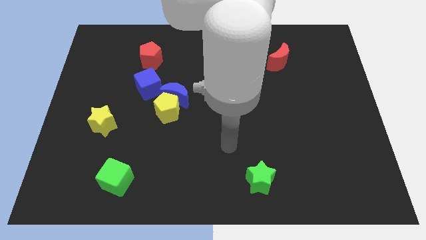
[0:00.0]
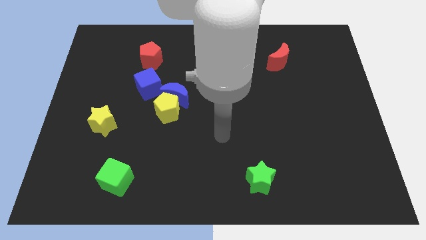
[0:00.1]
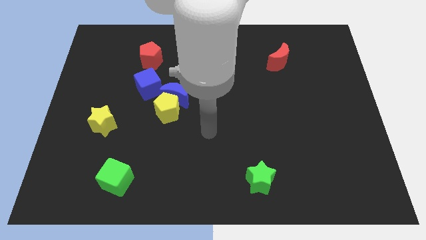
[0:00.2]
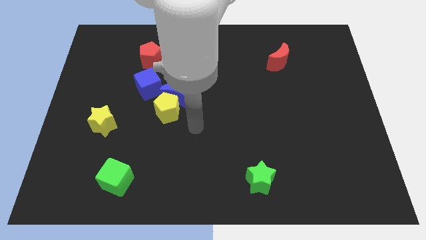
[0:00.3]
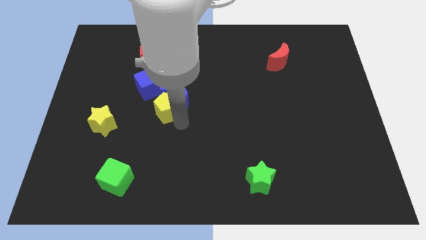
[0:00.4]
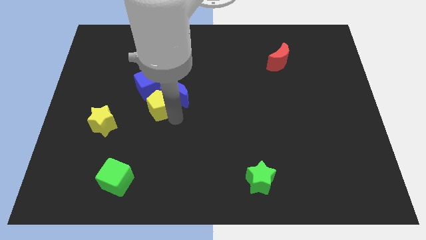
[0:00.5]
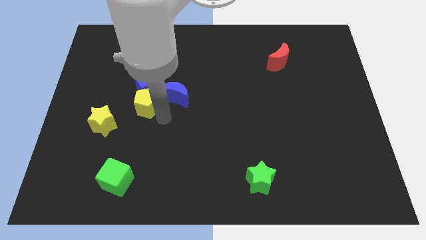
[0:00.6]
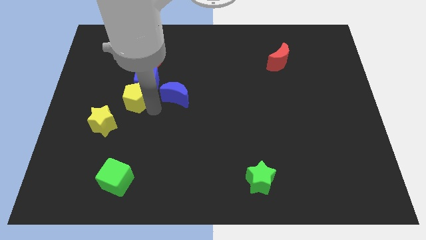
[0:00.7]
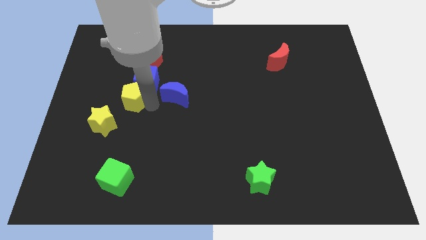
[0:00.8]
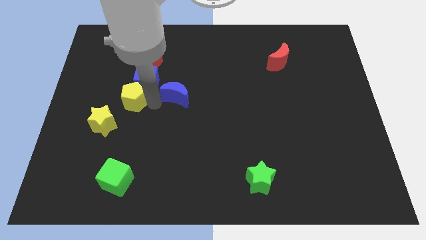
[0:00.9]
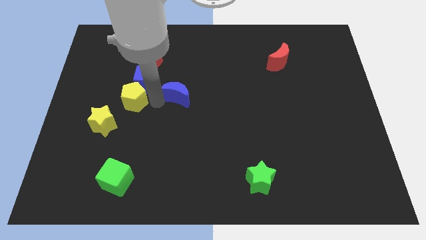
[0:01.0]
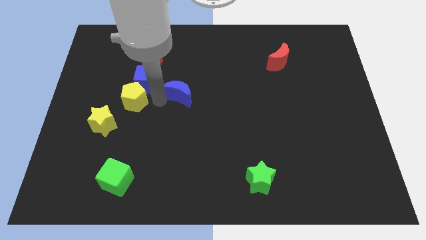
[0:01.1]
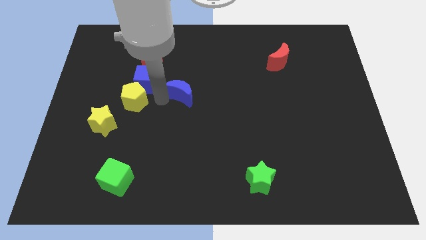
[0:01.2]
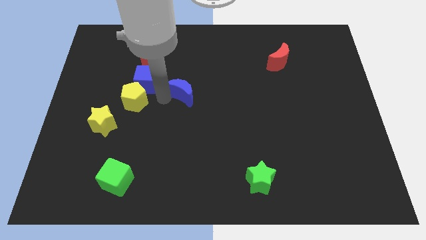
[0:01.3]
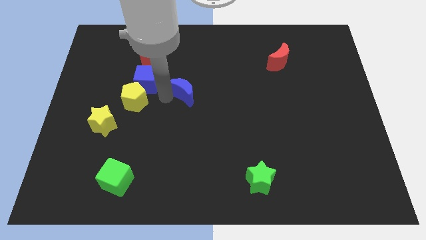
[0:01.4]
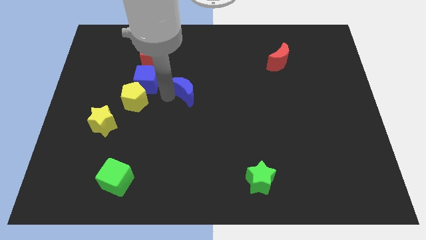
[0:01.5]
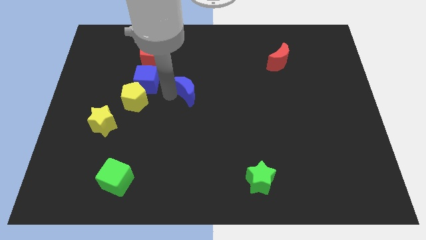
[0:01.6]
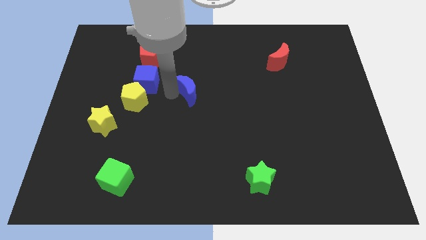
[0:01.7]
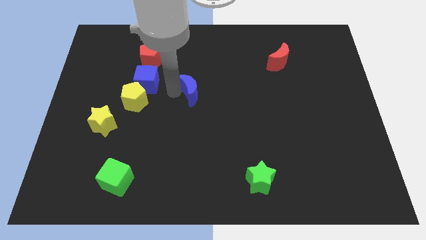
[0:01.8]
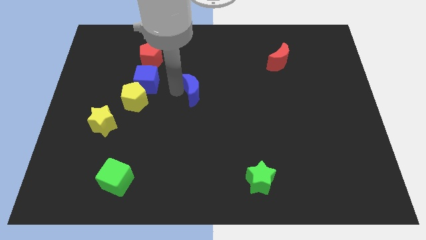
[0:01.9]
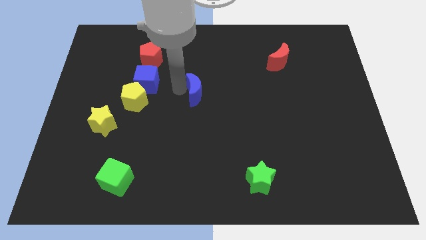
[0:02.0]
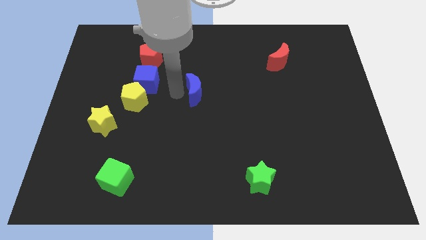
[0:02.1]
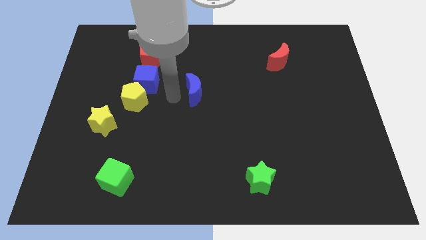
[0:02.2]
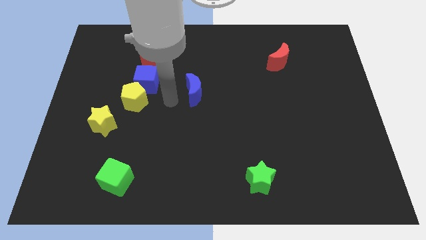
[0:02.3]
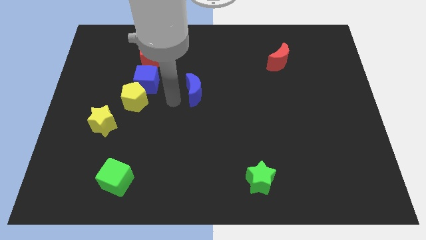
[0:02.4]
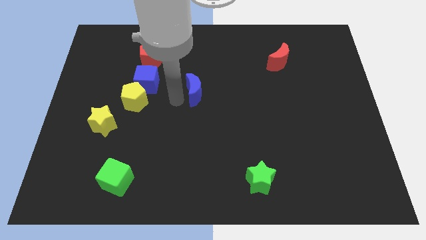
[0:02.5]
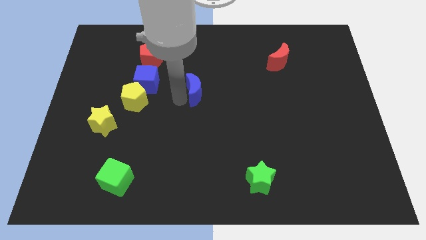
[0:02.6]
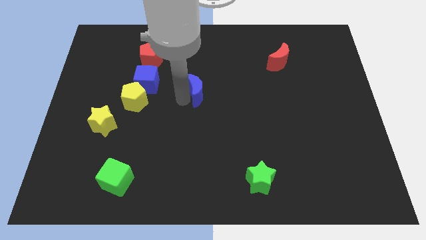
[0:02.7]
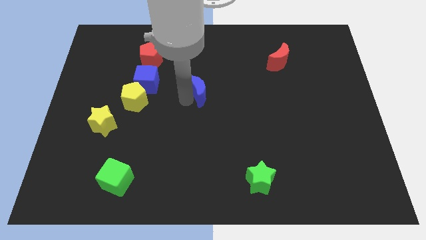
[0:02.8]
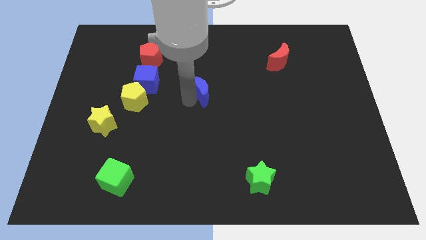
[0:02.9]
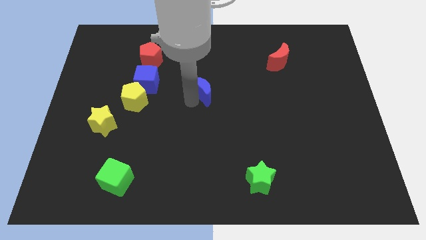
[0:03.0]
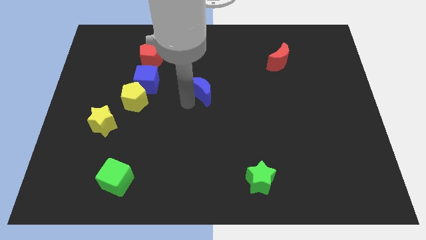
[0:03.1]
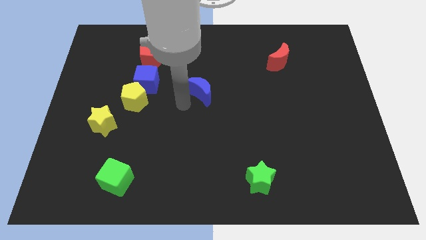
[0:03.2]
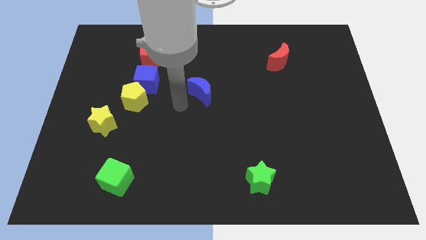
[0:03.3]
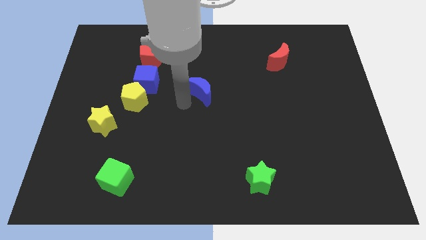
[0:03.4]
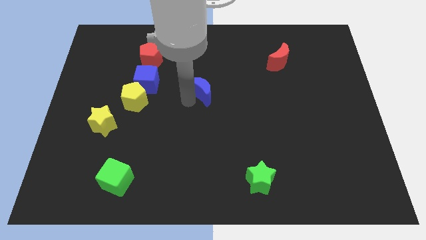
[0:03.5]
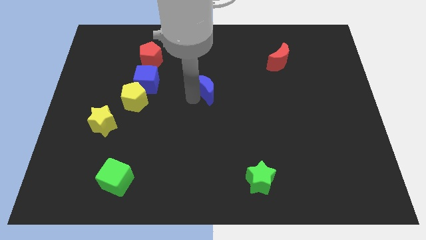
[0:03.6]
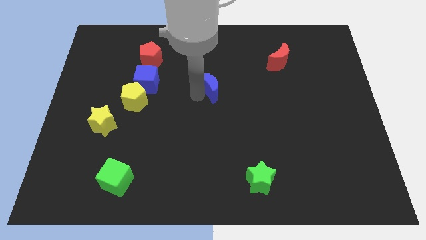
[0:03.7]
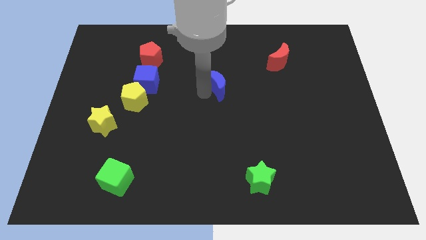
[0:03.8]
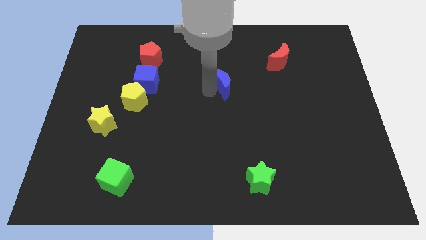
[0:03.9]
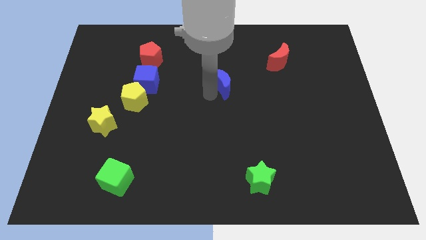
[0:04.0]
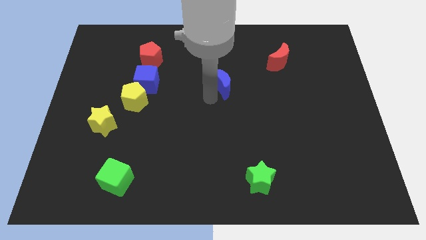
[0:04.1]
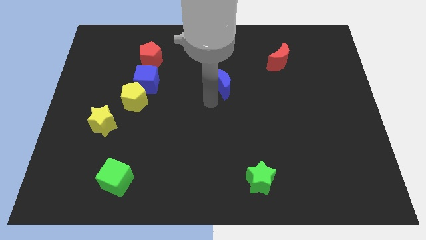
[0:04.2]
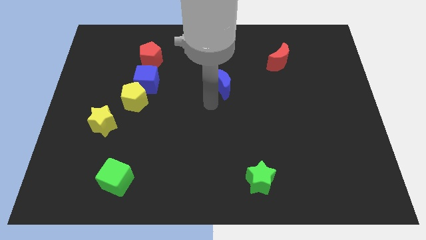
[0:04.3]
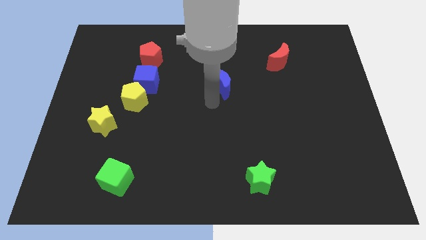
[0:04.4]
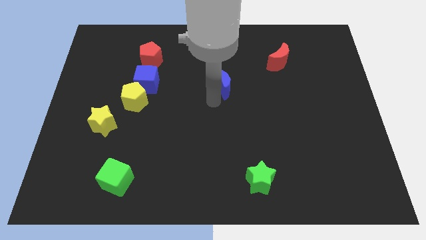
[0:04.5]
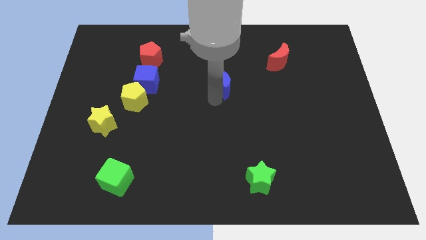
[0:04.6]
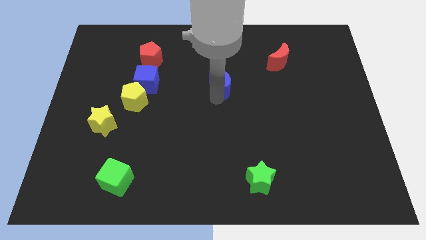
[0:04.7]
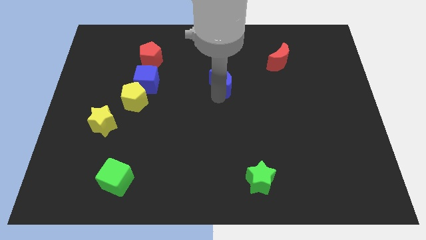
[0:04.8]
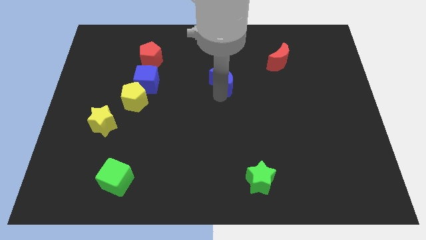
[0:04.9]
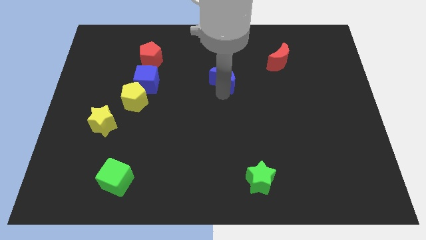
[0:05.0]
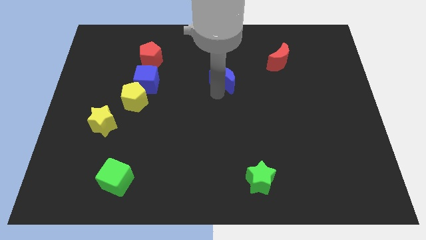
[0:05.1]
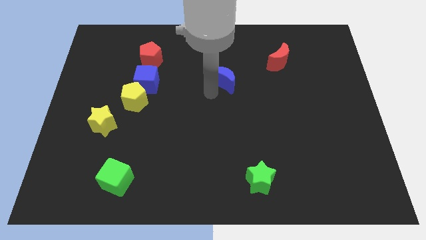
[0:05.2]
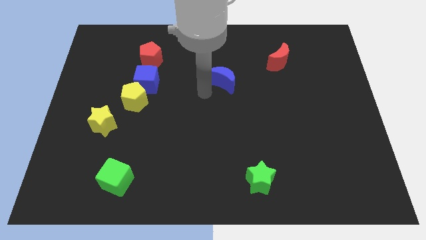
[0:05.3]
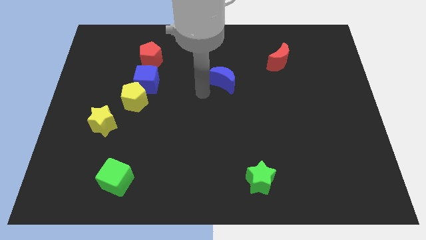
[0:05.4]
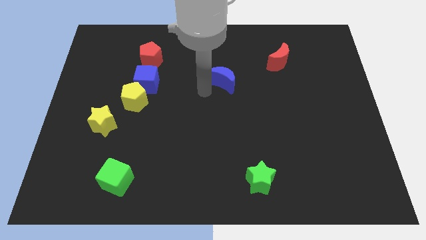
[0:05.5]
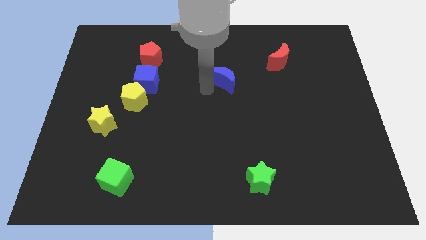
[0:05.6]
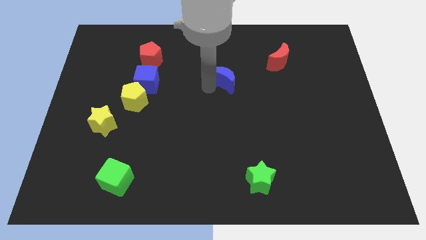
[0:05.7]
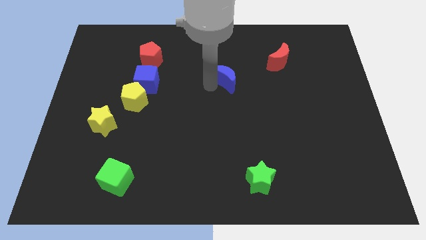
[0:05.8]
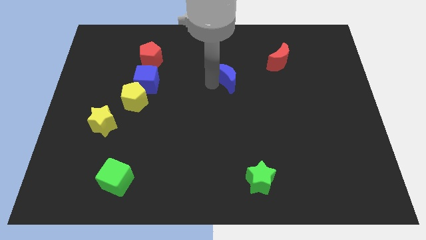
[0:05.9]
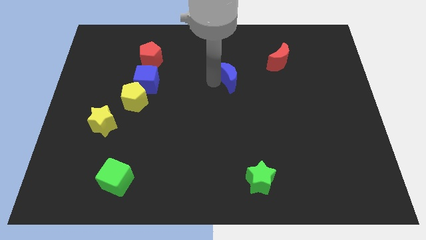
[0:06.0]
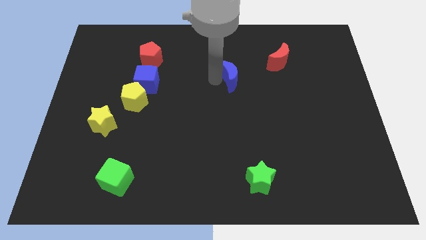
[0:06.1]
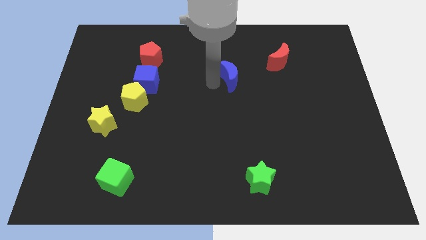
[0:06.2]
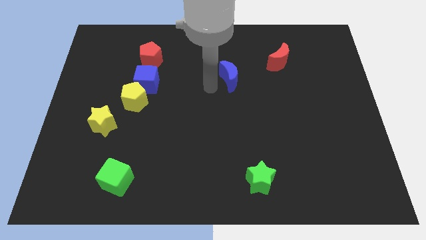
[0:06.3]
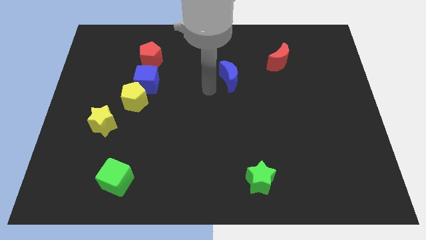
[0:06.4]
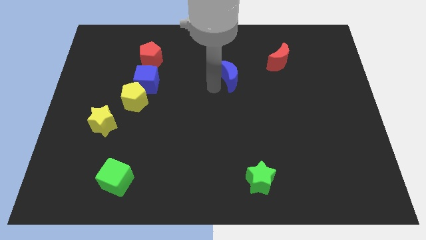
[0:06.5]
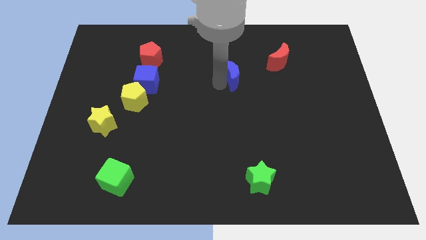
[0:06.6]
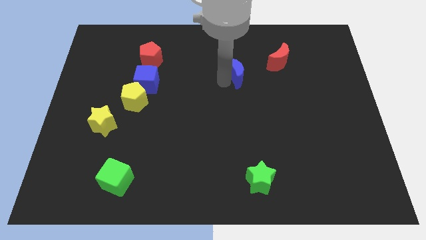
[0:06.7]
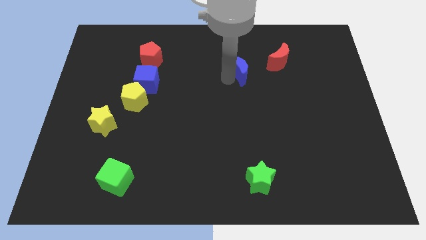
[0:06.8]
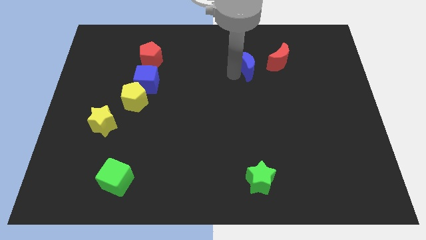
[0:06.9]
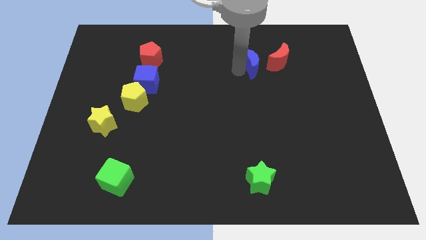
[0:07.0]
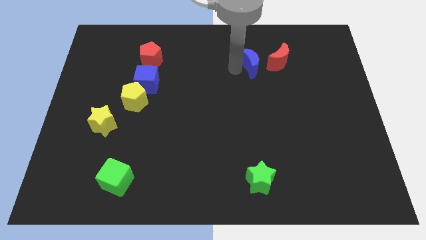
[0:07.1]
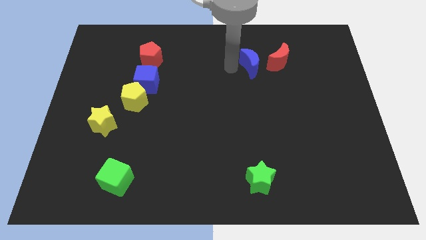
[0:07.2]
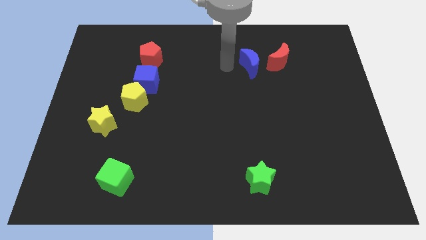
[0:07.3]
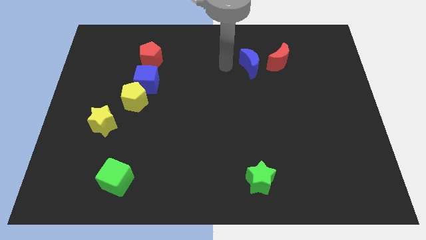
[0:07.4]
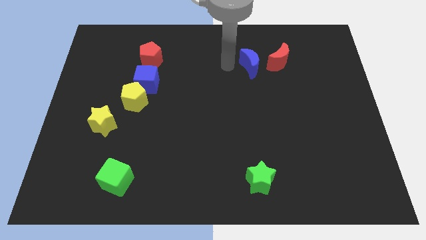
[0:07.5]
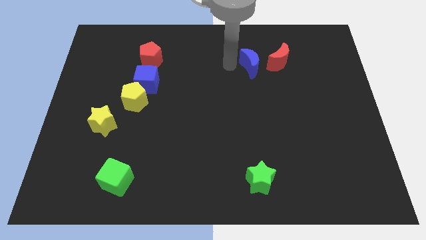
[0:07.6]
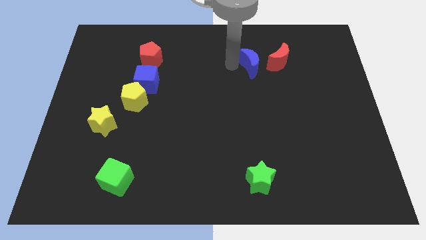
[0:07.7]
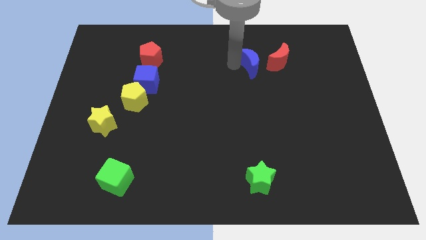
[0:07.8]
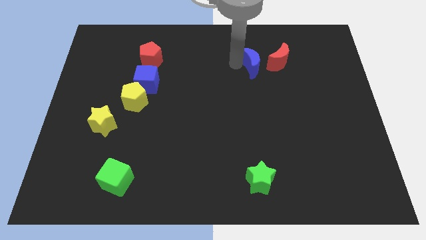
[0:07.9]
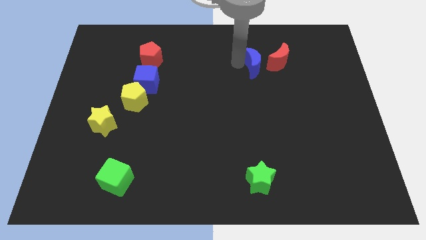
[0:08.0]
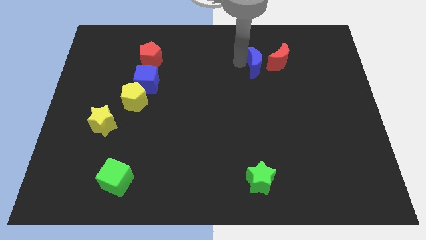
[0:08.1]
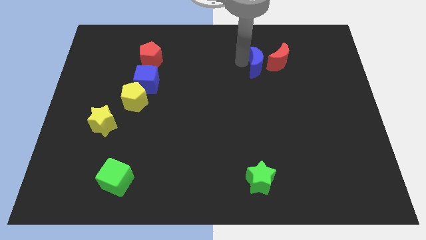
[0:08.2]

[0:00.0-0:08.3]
move the blue moon to the red moon
